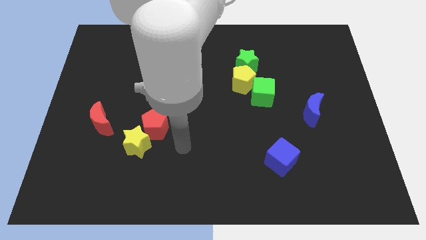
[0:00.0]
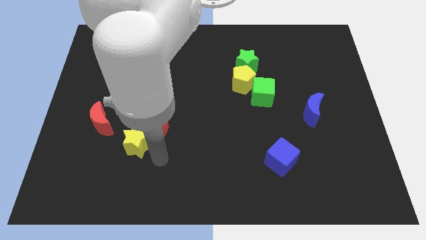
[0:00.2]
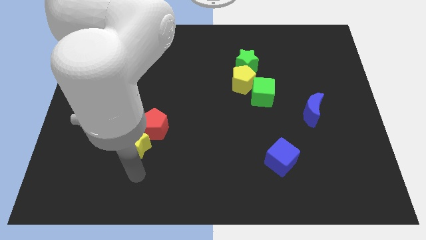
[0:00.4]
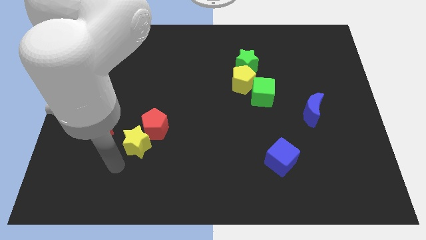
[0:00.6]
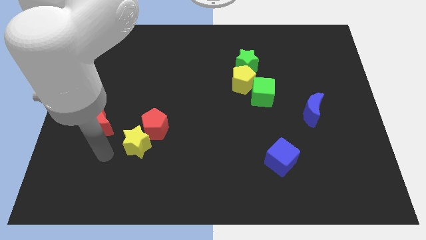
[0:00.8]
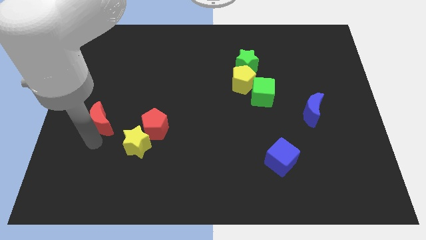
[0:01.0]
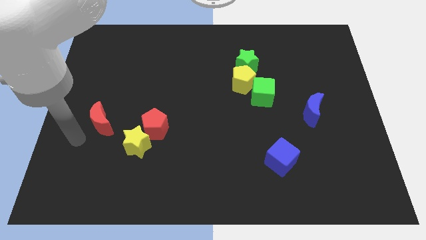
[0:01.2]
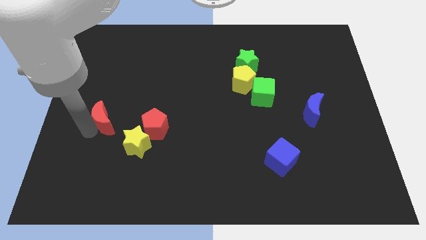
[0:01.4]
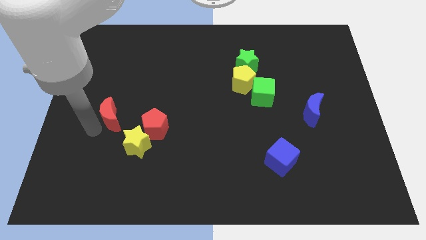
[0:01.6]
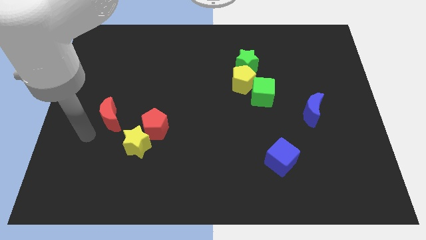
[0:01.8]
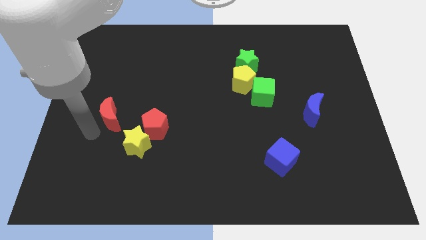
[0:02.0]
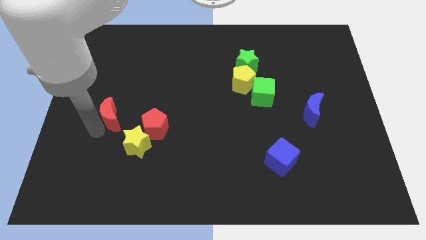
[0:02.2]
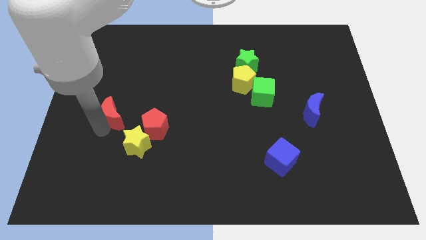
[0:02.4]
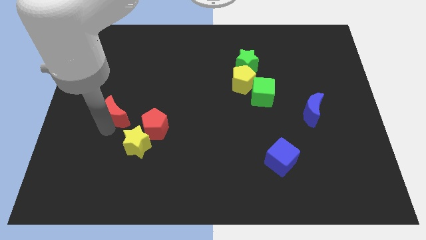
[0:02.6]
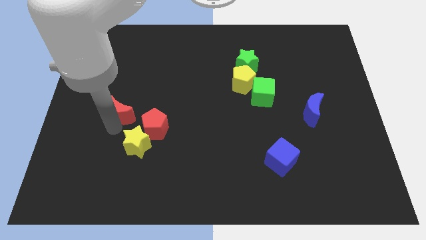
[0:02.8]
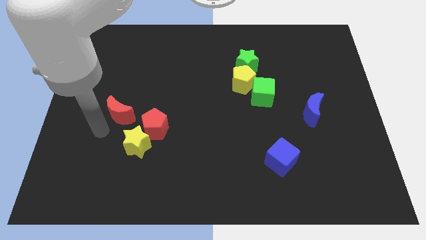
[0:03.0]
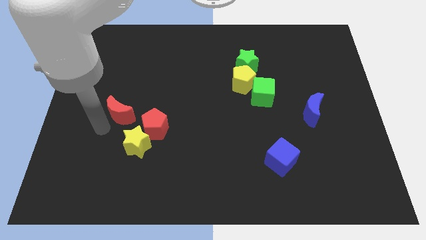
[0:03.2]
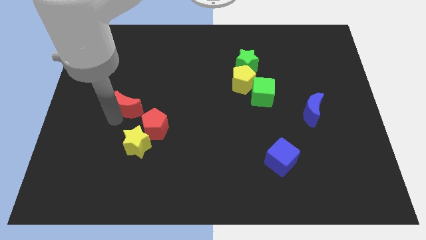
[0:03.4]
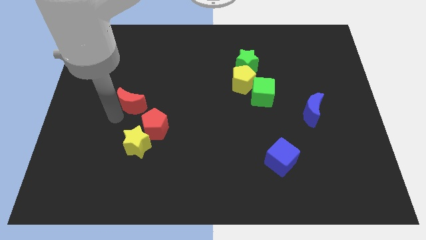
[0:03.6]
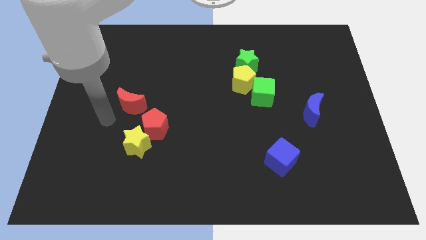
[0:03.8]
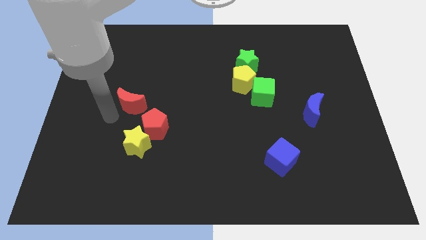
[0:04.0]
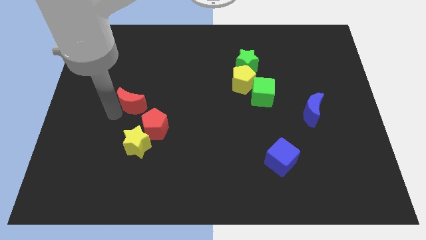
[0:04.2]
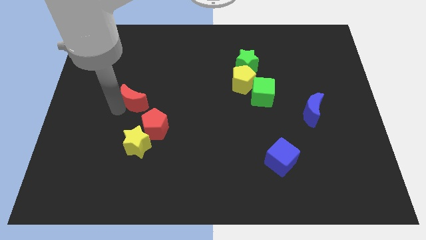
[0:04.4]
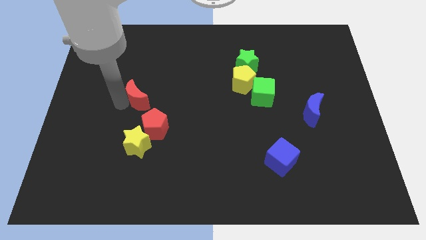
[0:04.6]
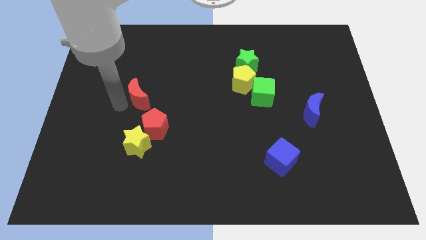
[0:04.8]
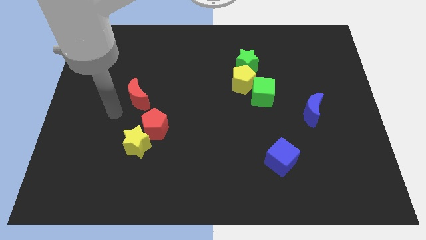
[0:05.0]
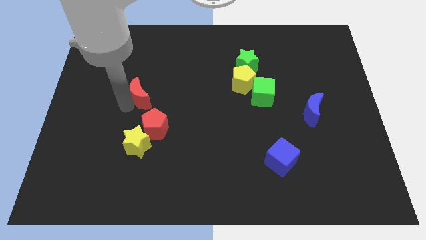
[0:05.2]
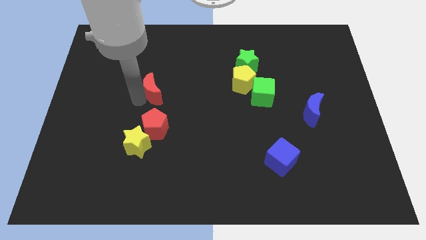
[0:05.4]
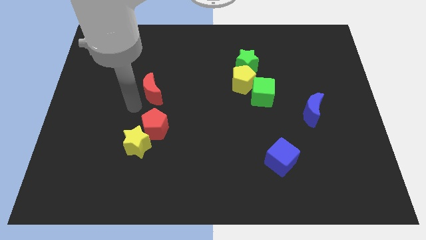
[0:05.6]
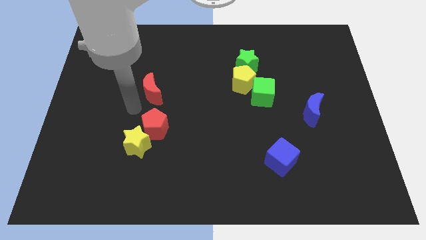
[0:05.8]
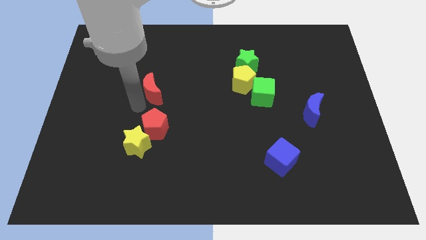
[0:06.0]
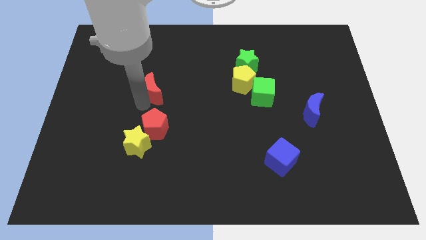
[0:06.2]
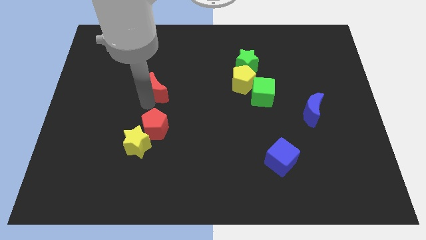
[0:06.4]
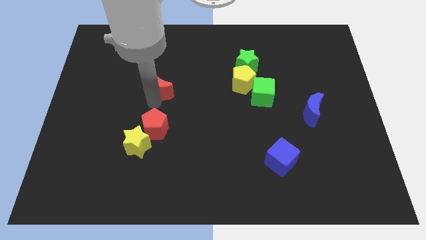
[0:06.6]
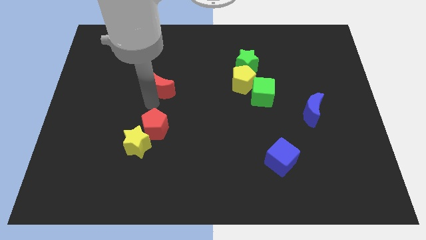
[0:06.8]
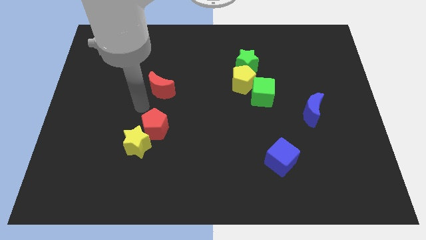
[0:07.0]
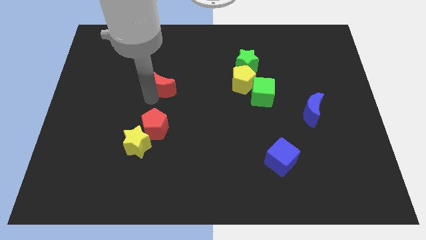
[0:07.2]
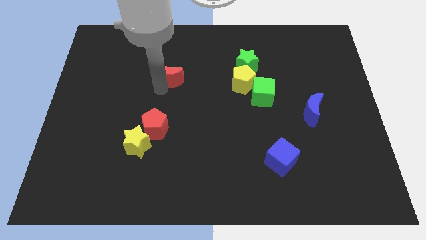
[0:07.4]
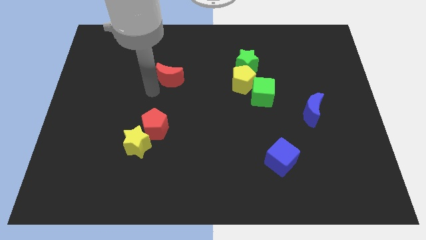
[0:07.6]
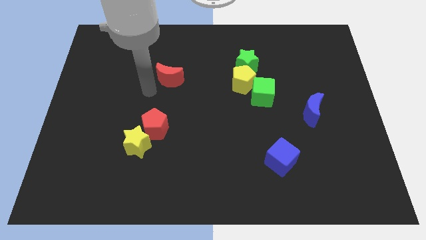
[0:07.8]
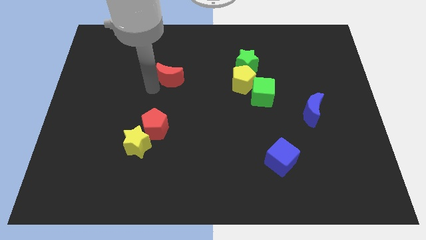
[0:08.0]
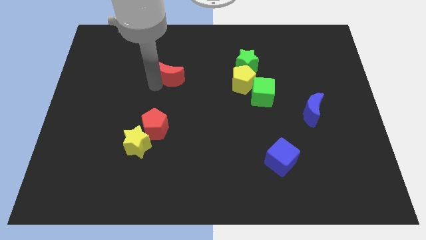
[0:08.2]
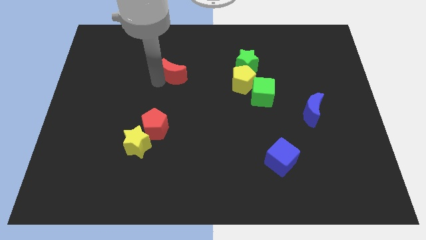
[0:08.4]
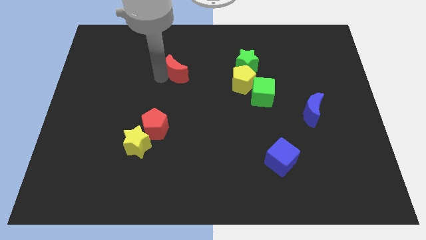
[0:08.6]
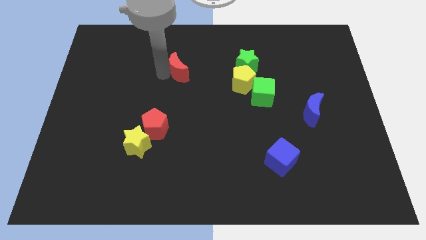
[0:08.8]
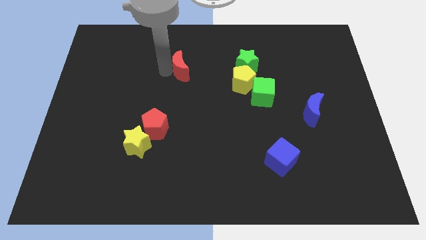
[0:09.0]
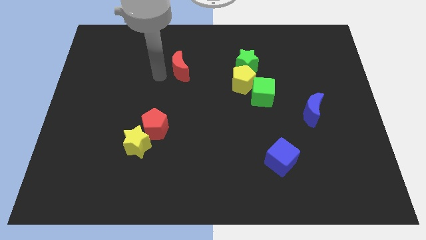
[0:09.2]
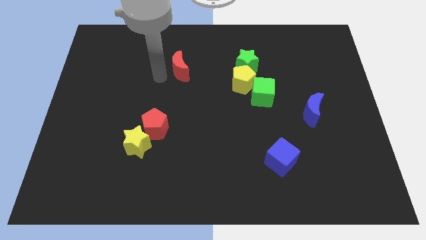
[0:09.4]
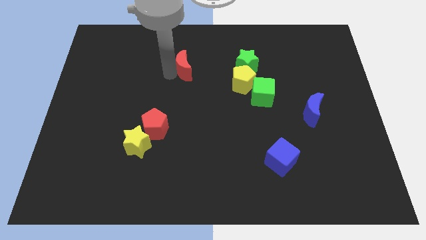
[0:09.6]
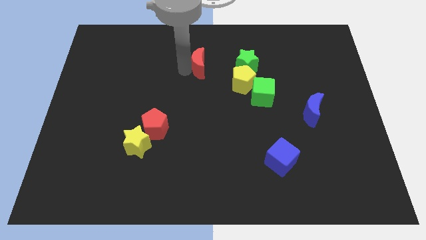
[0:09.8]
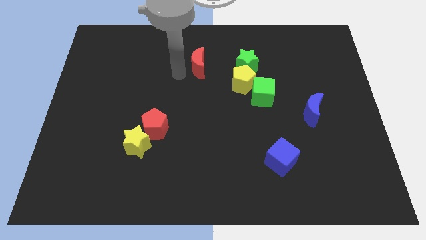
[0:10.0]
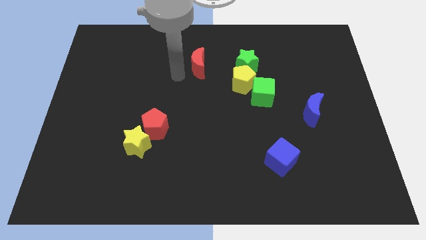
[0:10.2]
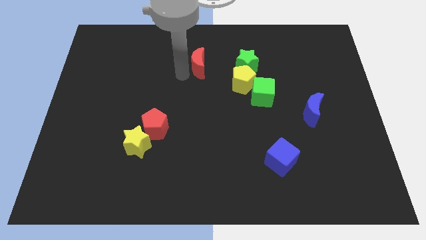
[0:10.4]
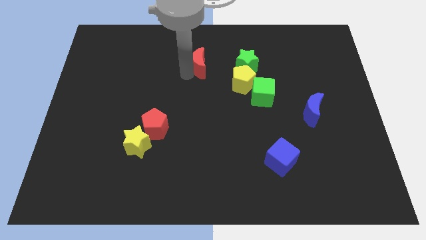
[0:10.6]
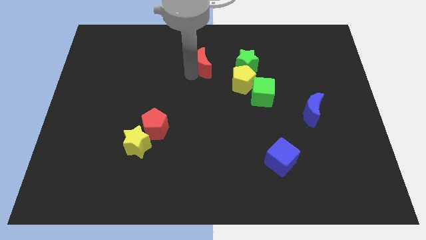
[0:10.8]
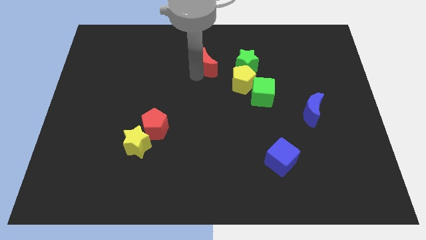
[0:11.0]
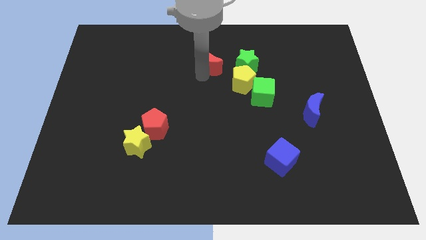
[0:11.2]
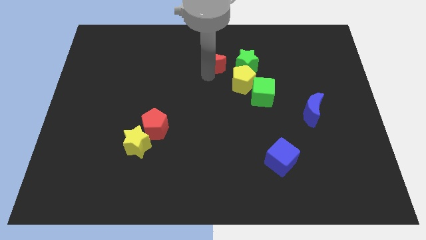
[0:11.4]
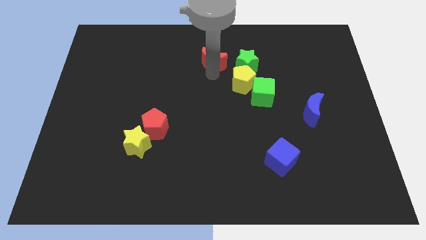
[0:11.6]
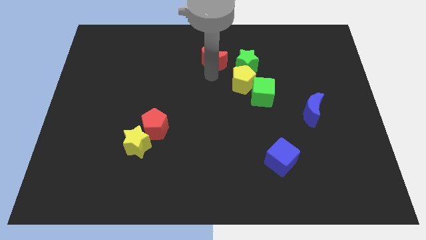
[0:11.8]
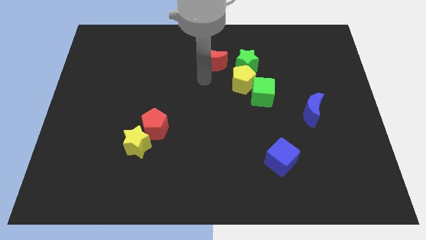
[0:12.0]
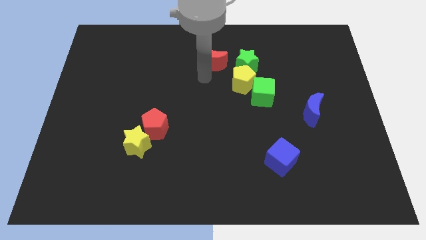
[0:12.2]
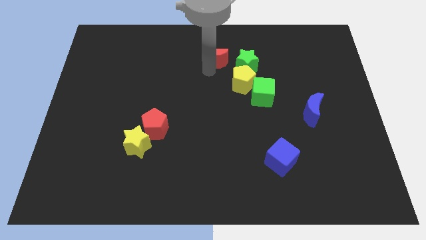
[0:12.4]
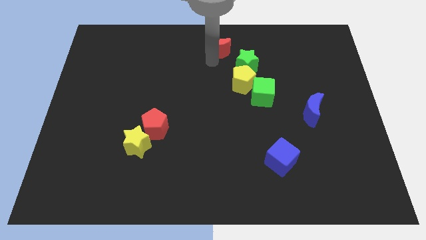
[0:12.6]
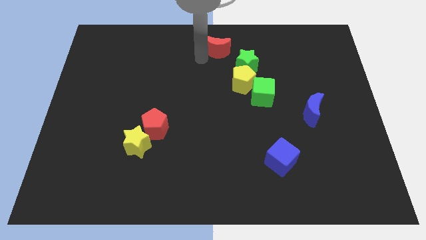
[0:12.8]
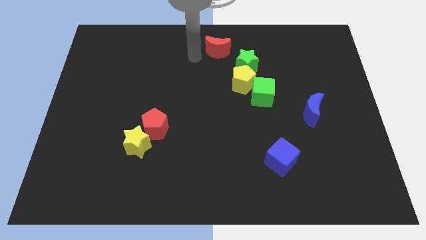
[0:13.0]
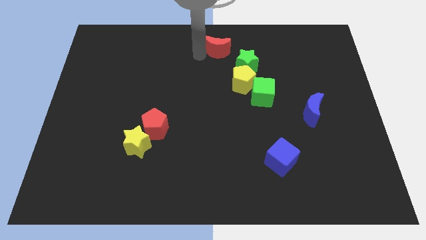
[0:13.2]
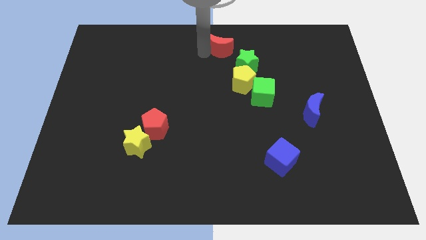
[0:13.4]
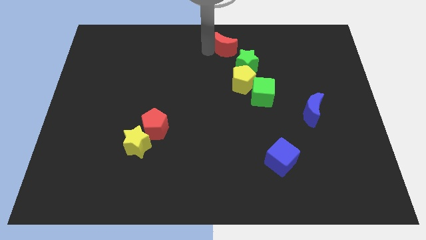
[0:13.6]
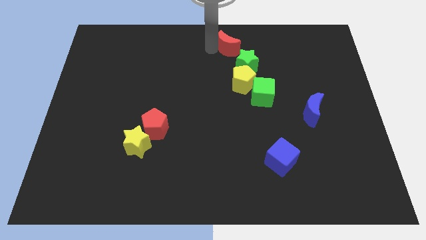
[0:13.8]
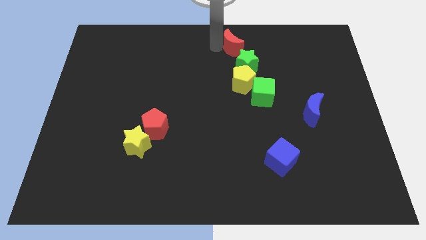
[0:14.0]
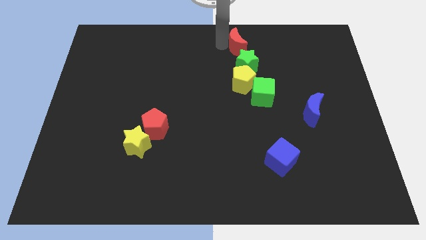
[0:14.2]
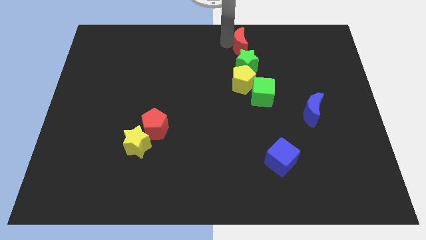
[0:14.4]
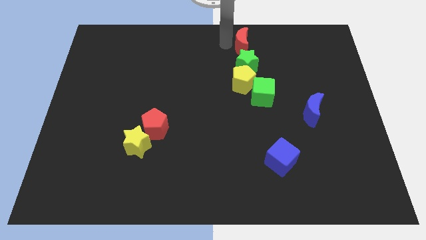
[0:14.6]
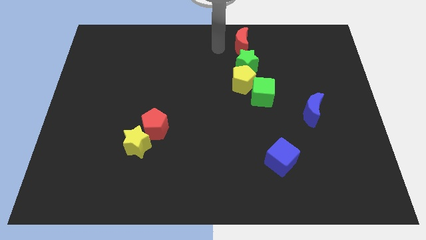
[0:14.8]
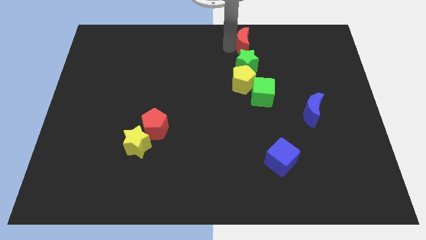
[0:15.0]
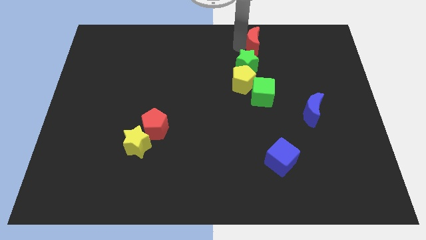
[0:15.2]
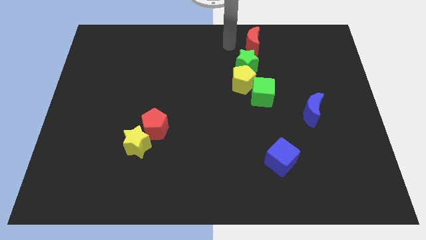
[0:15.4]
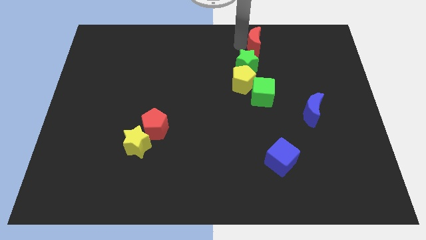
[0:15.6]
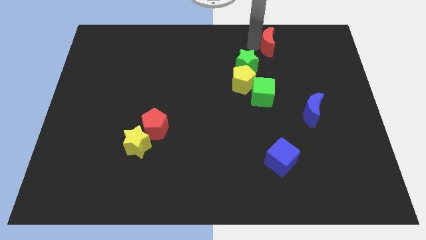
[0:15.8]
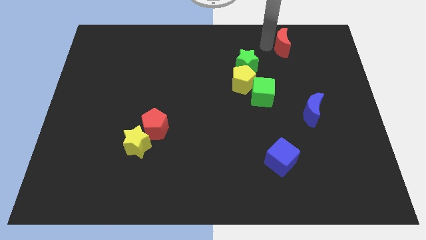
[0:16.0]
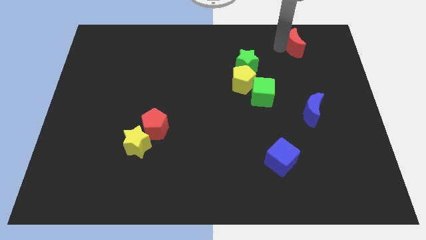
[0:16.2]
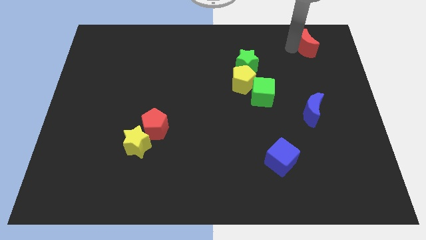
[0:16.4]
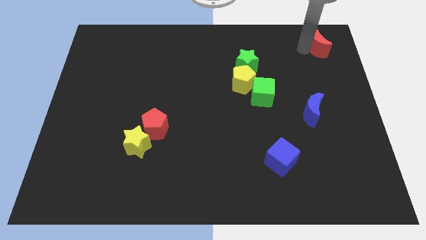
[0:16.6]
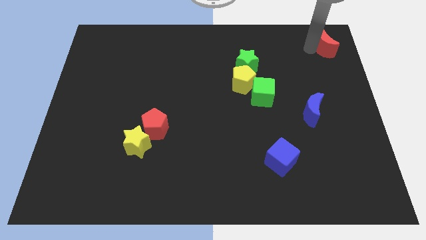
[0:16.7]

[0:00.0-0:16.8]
push the red moon to the upper right corner
